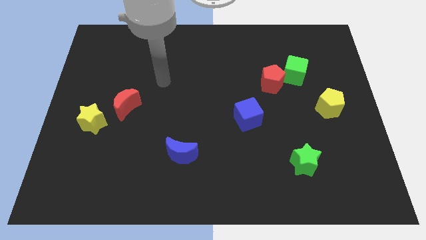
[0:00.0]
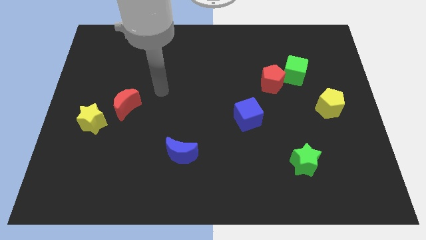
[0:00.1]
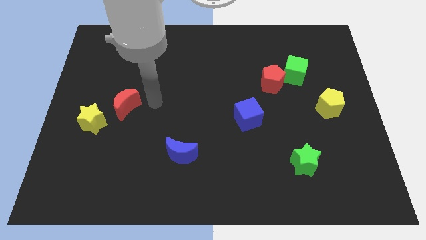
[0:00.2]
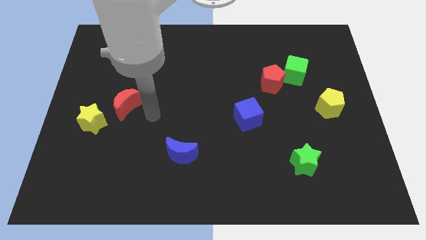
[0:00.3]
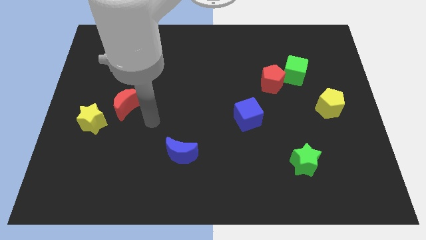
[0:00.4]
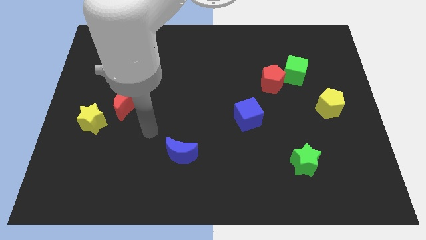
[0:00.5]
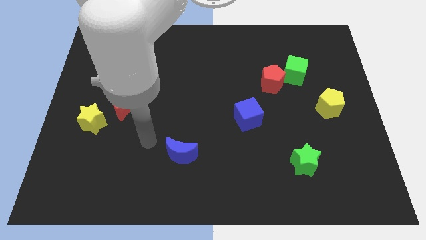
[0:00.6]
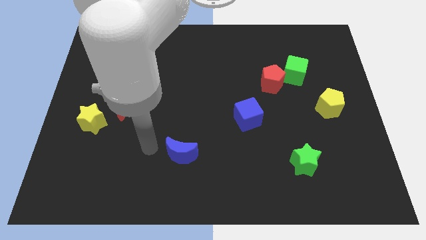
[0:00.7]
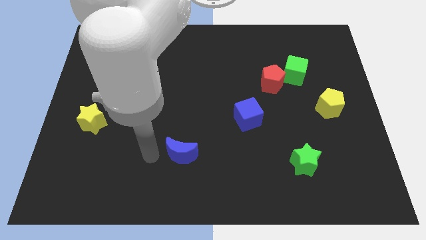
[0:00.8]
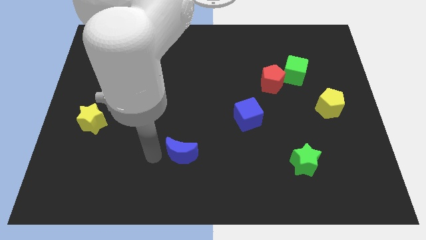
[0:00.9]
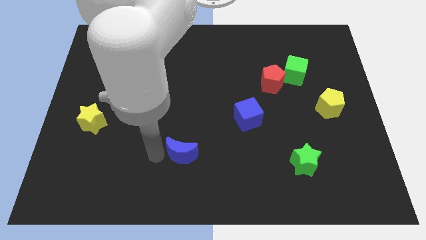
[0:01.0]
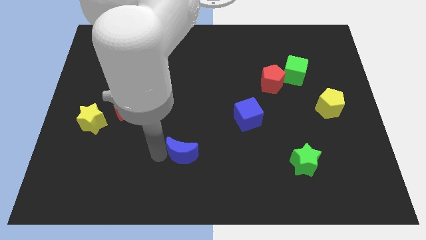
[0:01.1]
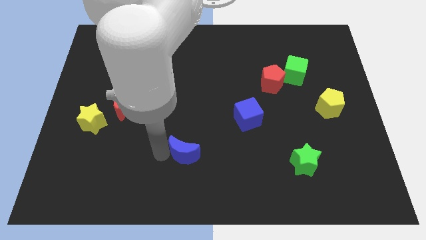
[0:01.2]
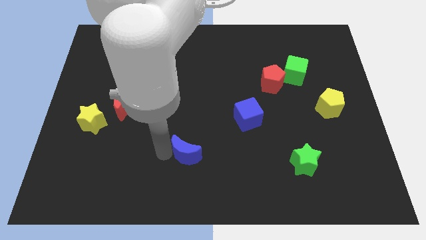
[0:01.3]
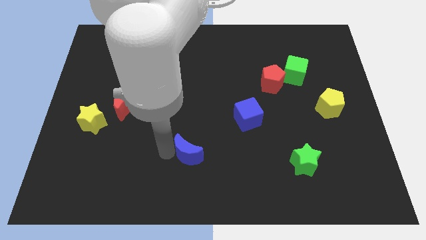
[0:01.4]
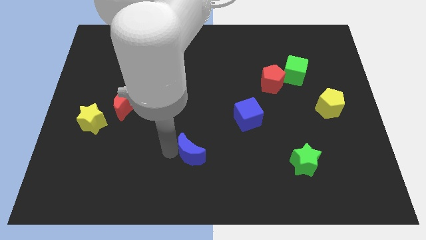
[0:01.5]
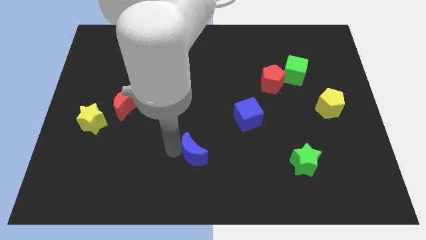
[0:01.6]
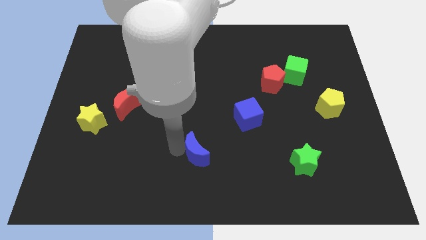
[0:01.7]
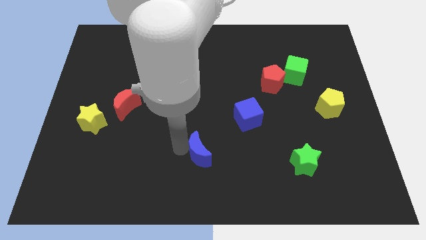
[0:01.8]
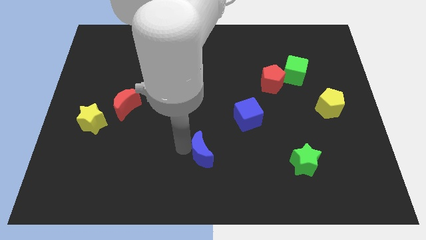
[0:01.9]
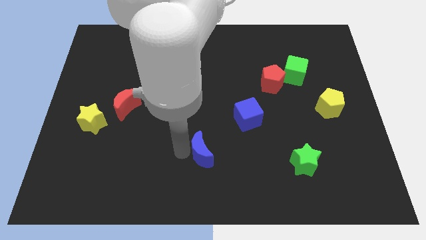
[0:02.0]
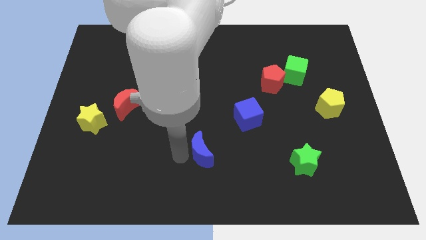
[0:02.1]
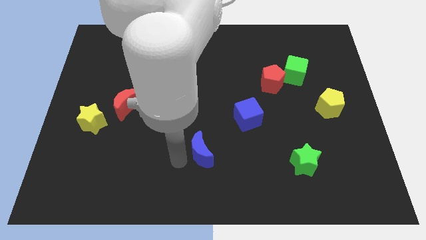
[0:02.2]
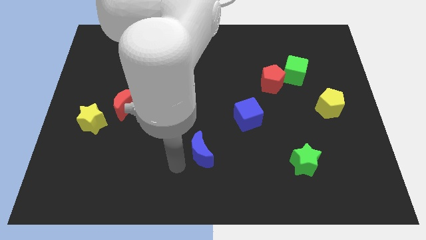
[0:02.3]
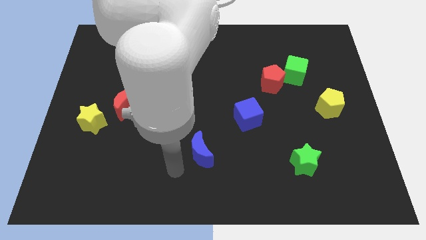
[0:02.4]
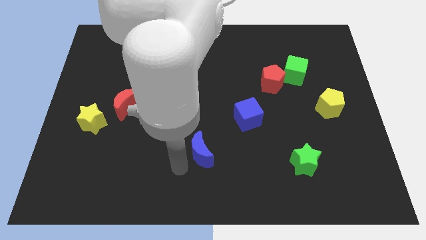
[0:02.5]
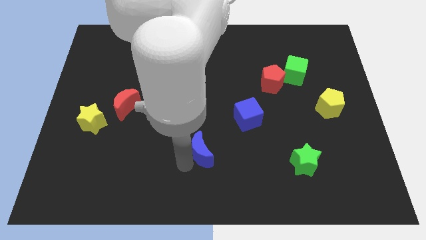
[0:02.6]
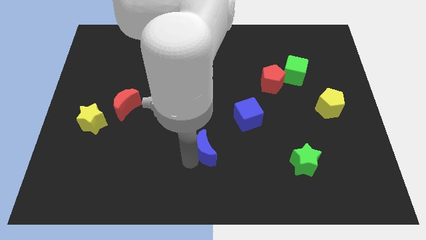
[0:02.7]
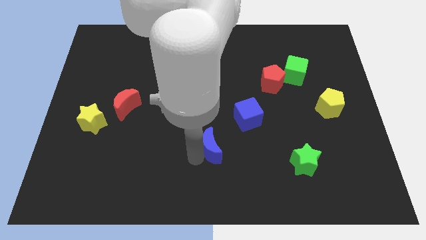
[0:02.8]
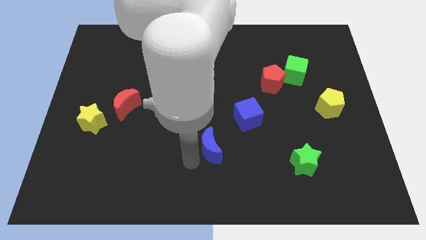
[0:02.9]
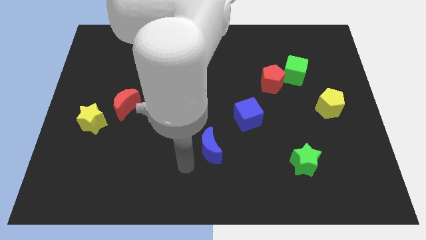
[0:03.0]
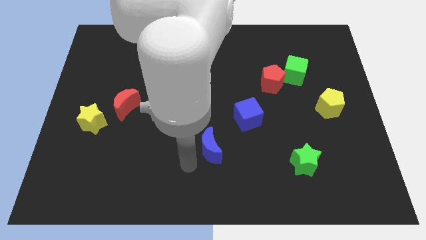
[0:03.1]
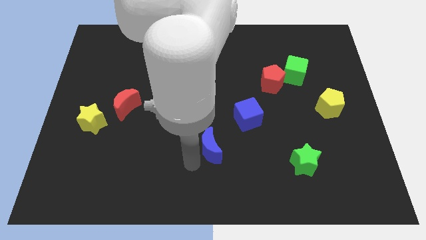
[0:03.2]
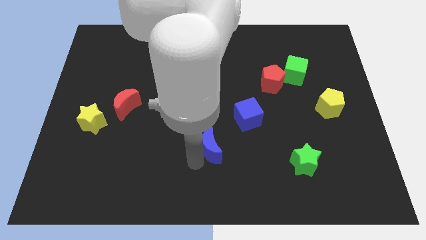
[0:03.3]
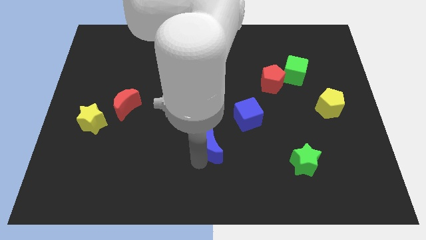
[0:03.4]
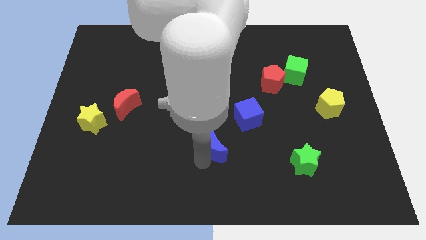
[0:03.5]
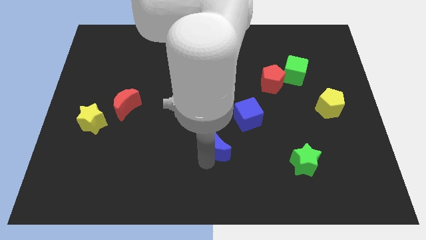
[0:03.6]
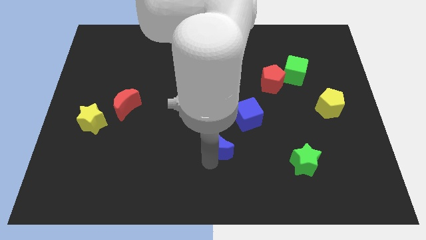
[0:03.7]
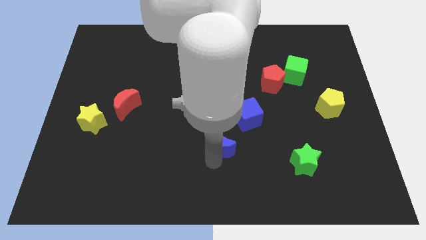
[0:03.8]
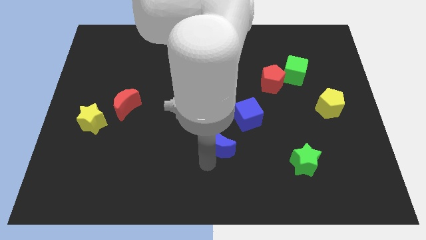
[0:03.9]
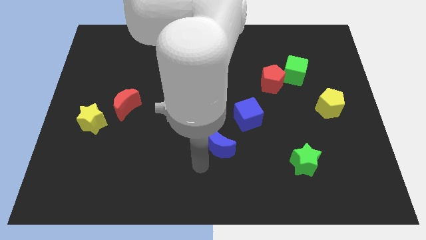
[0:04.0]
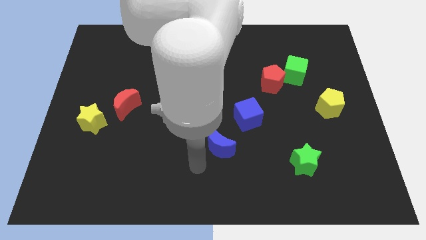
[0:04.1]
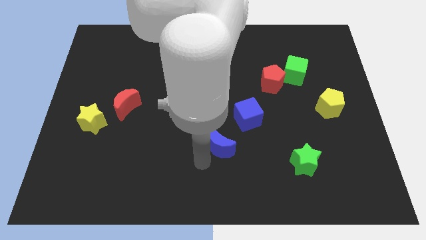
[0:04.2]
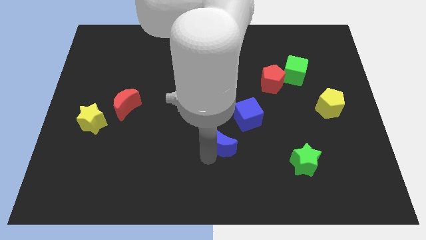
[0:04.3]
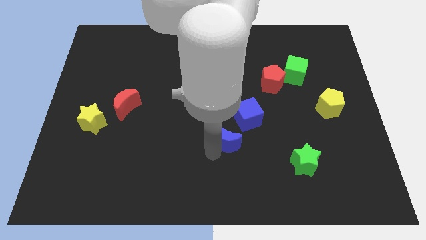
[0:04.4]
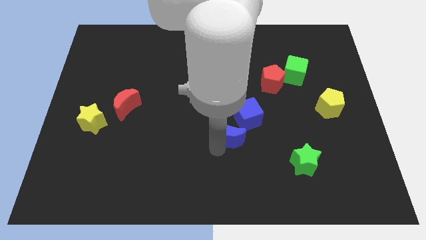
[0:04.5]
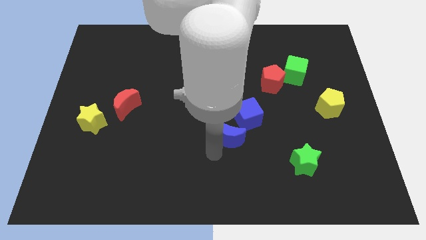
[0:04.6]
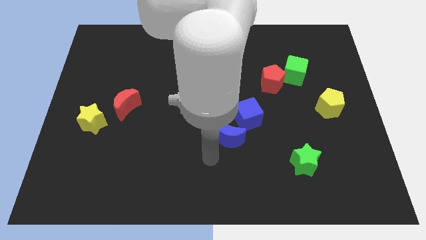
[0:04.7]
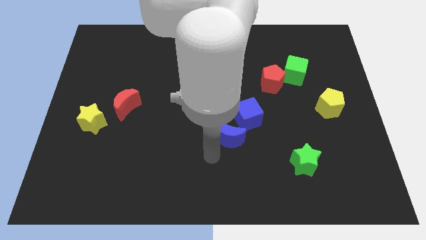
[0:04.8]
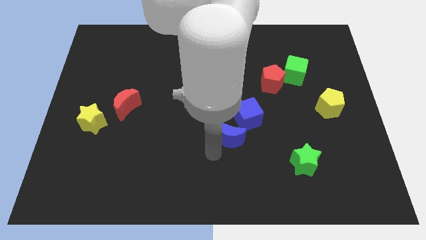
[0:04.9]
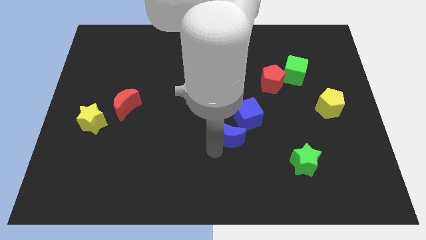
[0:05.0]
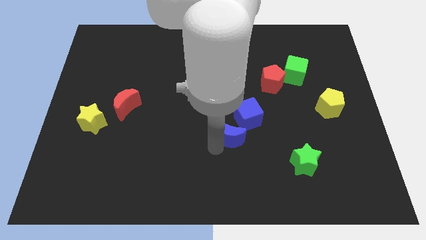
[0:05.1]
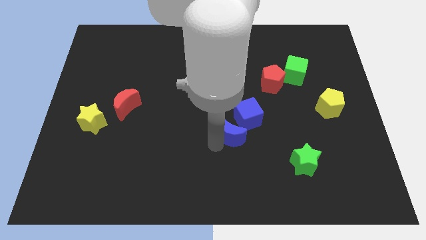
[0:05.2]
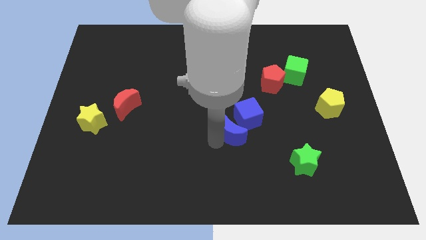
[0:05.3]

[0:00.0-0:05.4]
move the blue moon next to the blue cube

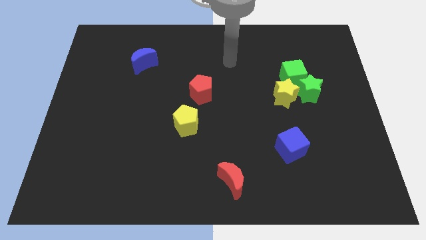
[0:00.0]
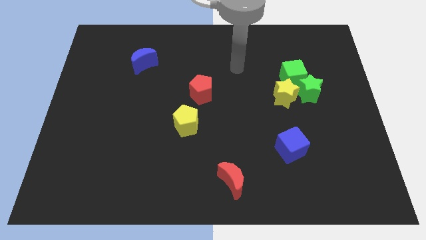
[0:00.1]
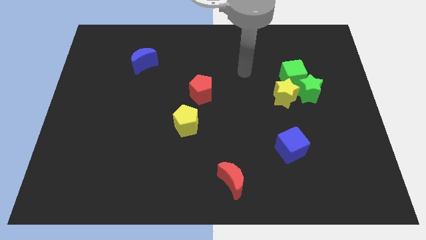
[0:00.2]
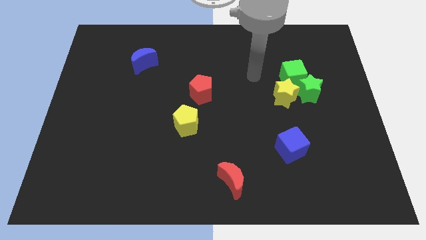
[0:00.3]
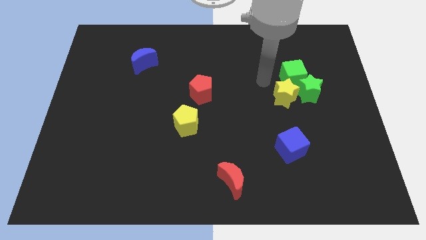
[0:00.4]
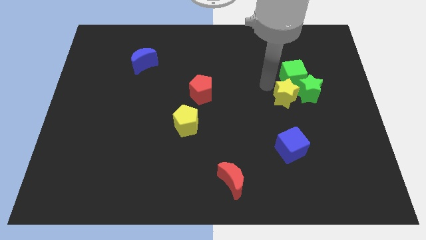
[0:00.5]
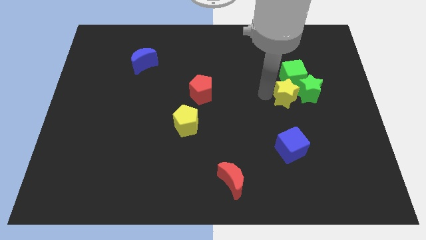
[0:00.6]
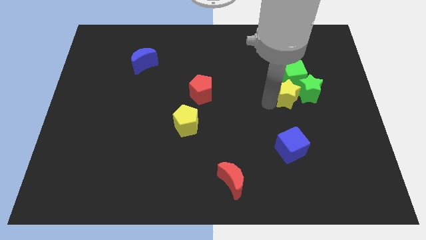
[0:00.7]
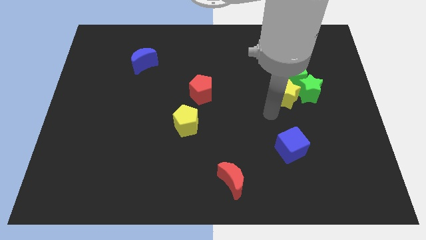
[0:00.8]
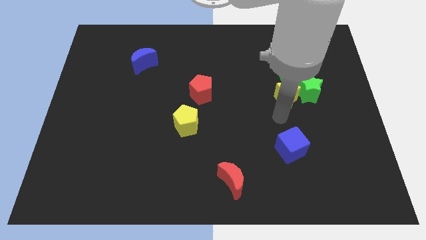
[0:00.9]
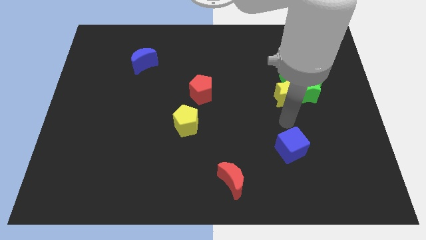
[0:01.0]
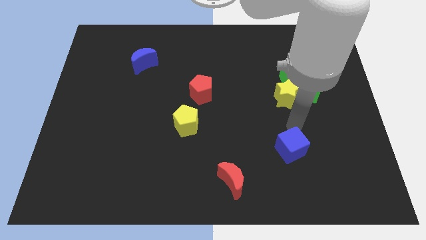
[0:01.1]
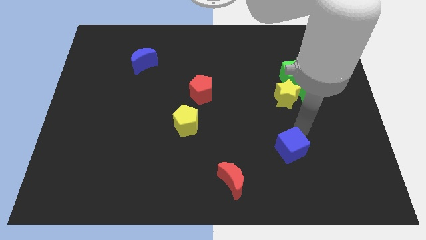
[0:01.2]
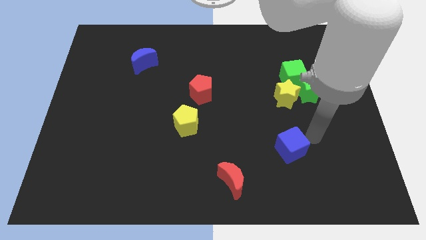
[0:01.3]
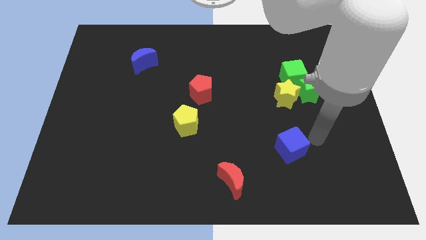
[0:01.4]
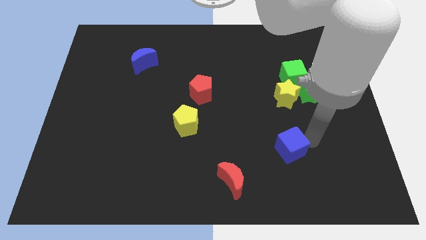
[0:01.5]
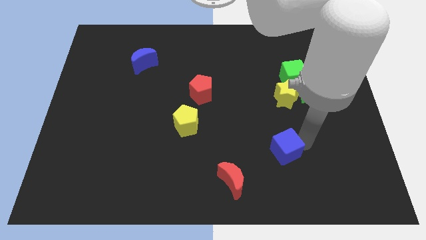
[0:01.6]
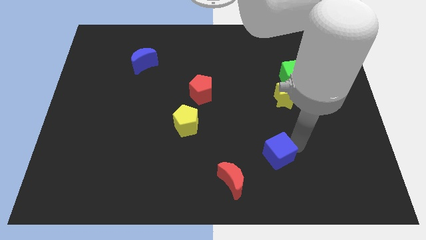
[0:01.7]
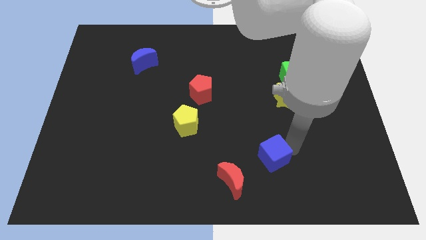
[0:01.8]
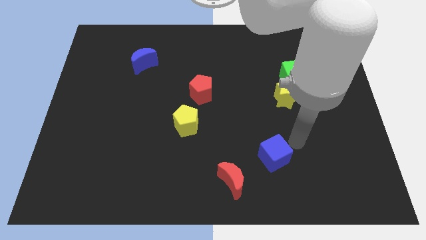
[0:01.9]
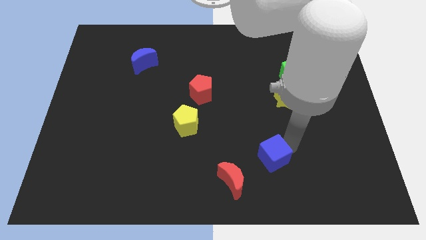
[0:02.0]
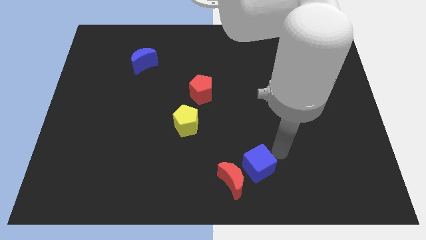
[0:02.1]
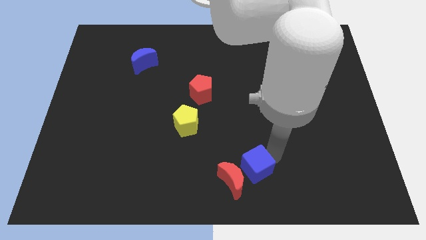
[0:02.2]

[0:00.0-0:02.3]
slide the blue cube next to the red moon
